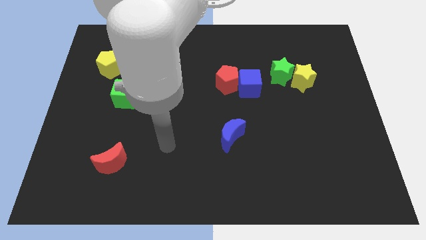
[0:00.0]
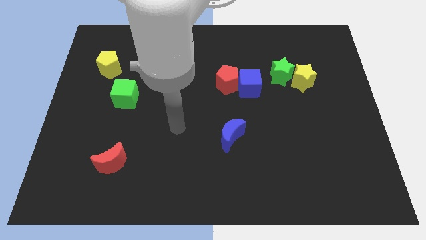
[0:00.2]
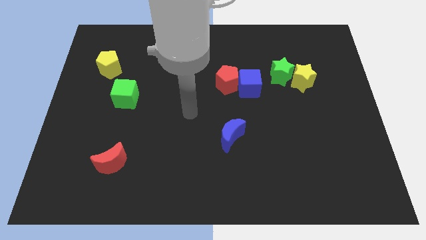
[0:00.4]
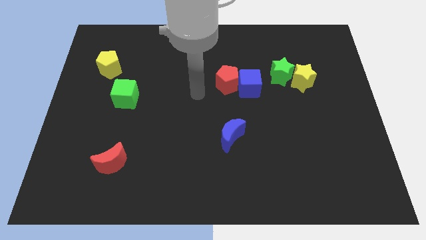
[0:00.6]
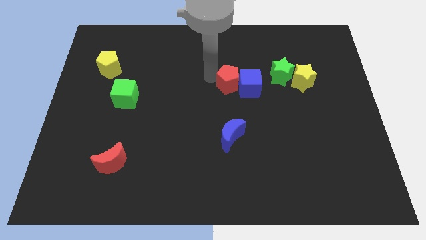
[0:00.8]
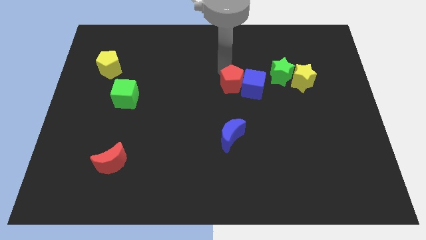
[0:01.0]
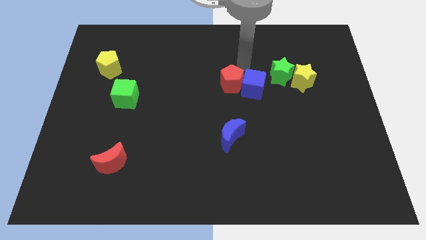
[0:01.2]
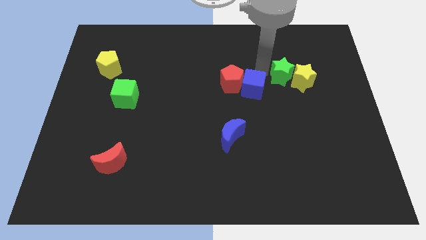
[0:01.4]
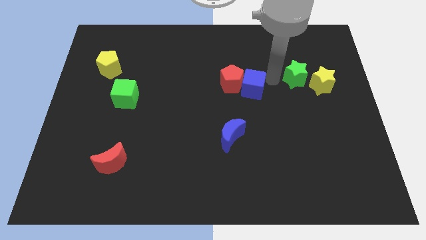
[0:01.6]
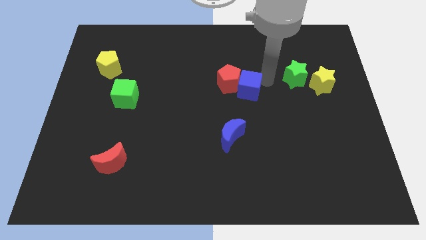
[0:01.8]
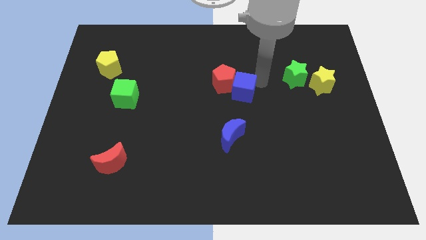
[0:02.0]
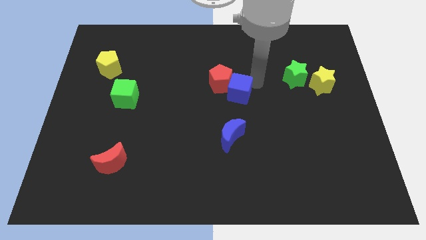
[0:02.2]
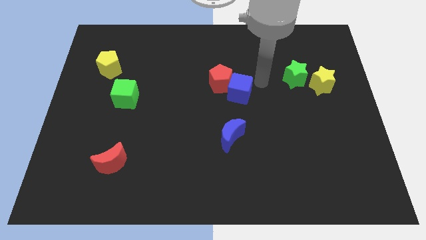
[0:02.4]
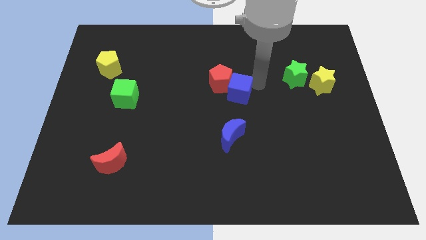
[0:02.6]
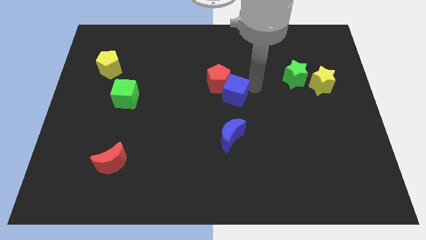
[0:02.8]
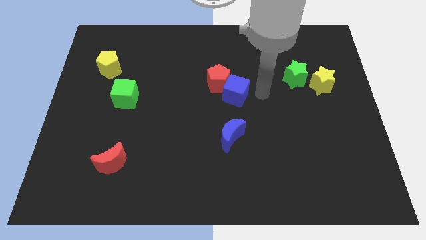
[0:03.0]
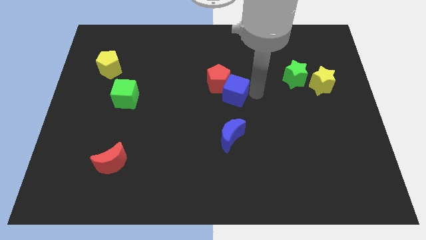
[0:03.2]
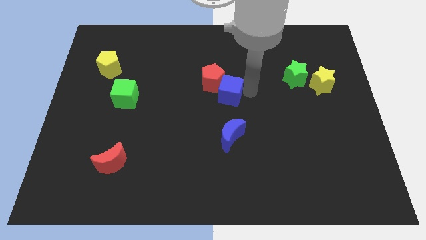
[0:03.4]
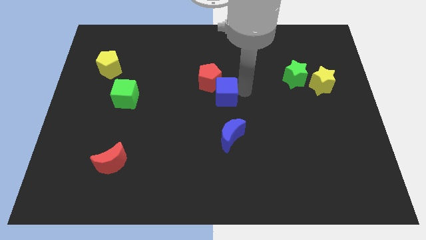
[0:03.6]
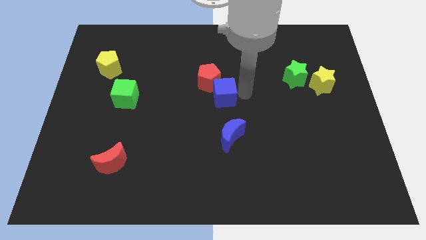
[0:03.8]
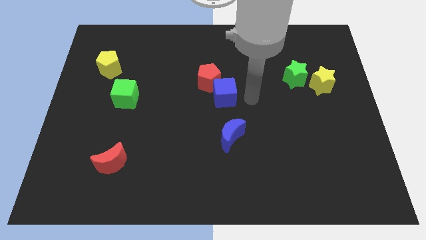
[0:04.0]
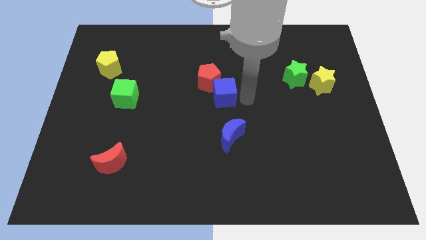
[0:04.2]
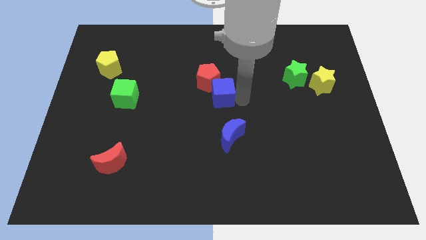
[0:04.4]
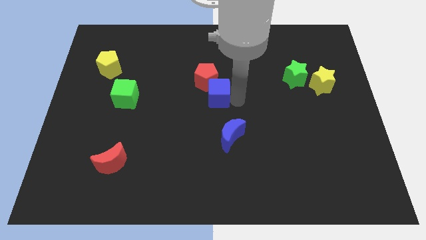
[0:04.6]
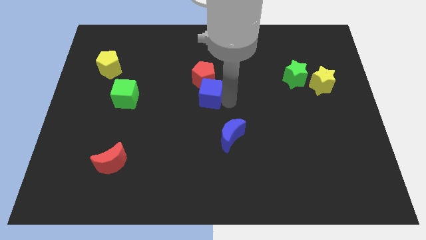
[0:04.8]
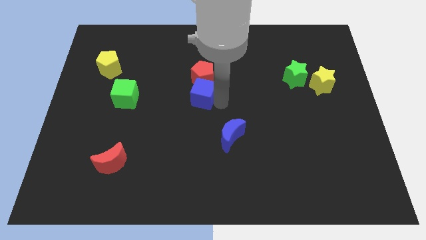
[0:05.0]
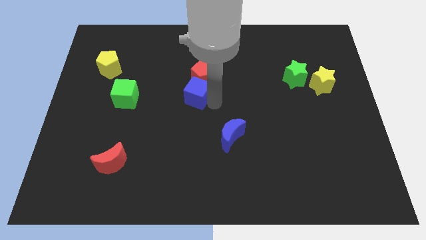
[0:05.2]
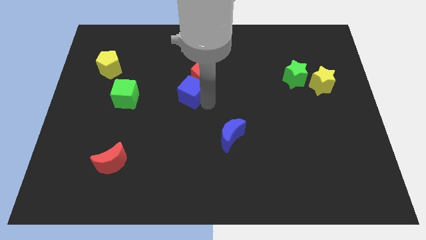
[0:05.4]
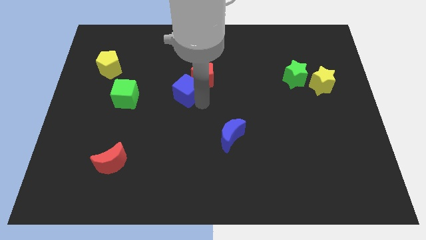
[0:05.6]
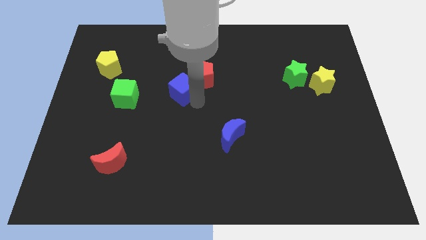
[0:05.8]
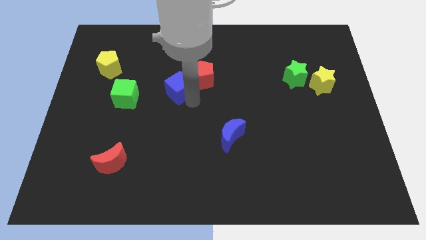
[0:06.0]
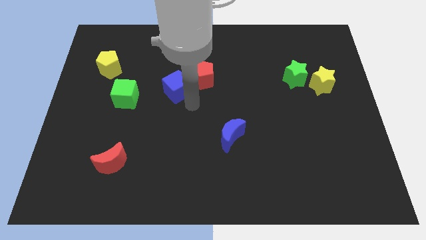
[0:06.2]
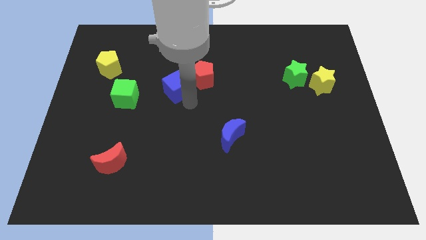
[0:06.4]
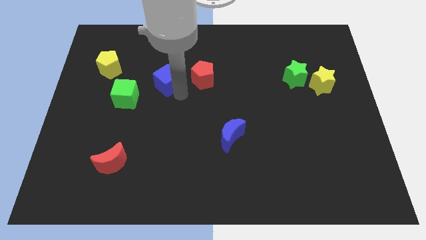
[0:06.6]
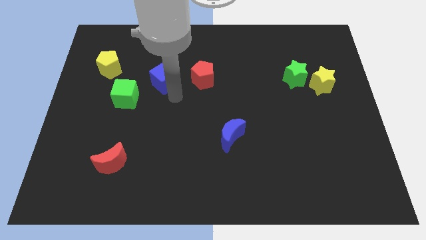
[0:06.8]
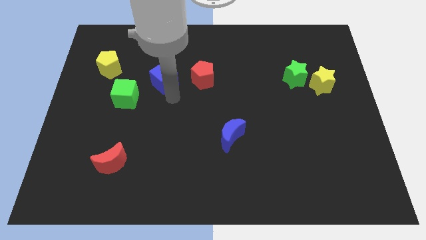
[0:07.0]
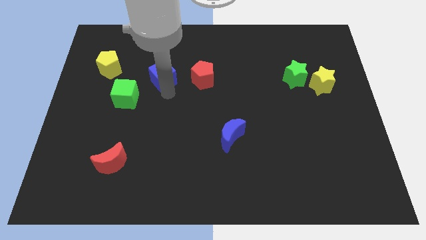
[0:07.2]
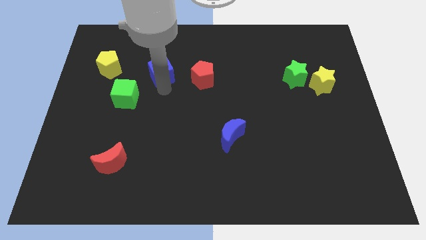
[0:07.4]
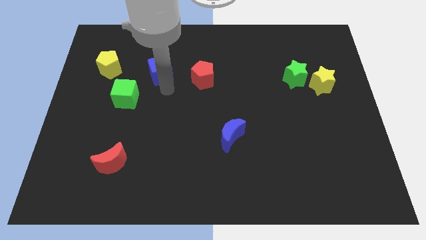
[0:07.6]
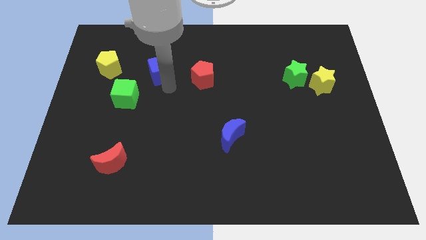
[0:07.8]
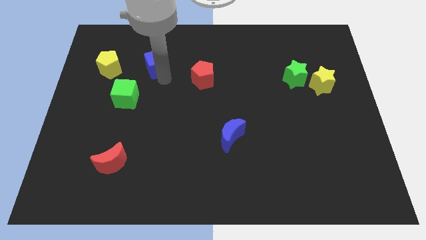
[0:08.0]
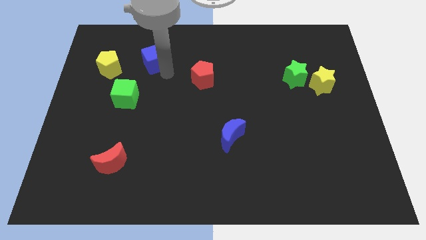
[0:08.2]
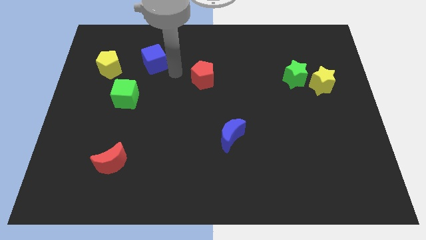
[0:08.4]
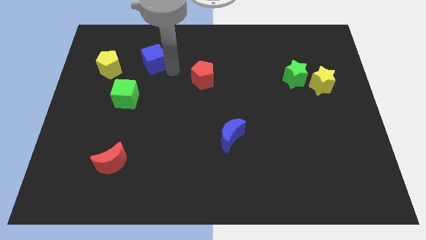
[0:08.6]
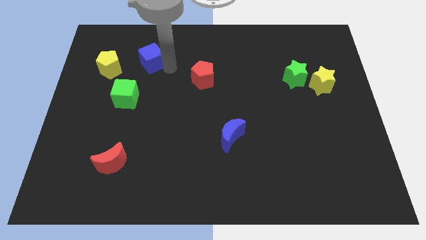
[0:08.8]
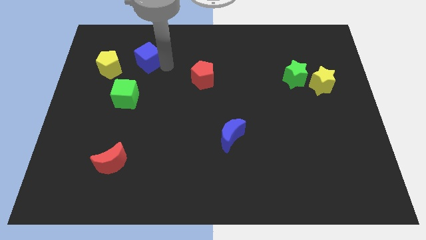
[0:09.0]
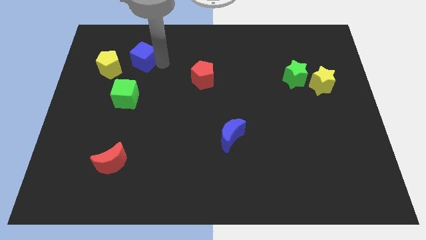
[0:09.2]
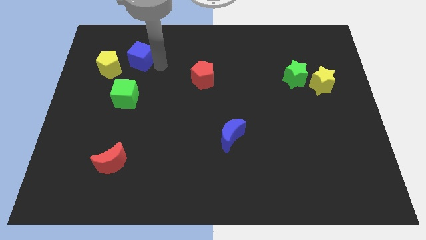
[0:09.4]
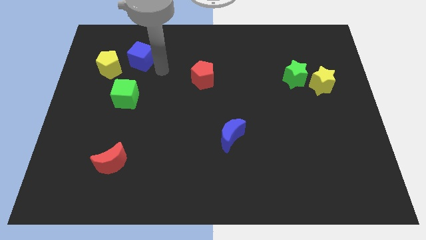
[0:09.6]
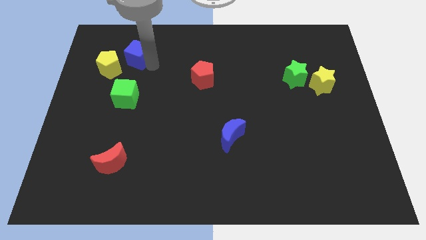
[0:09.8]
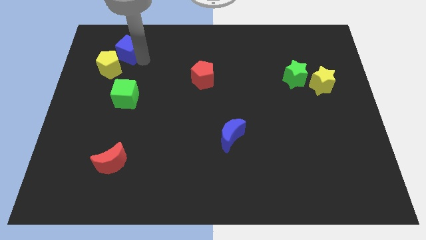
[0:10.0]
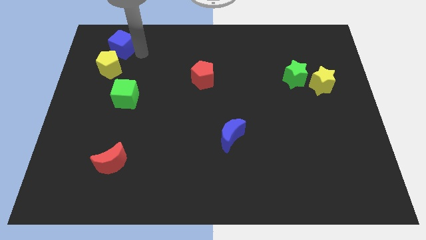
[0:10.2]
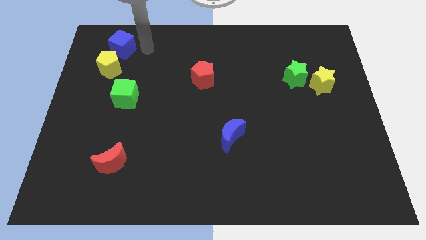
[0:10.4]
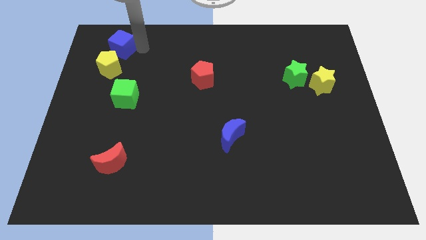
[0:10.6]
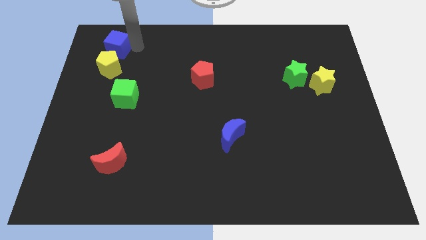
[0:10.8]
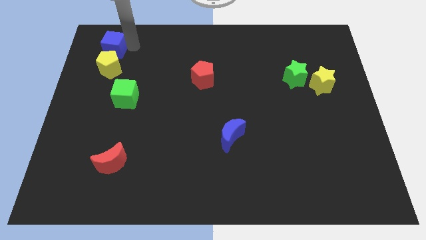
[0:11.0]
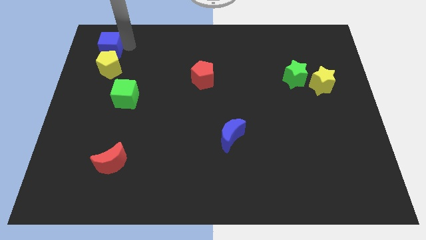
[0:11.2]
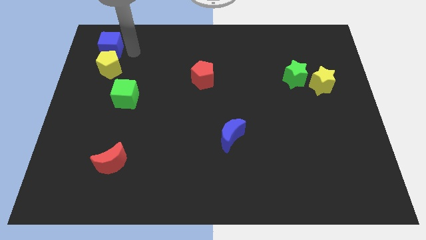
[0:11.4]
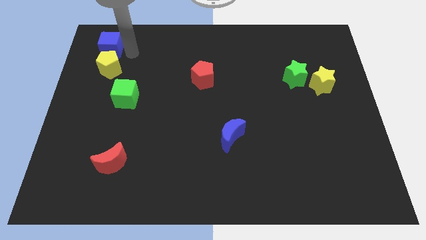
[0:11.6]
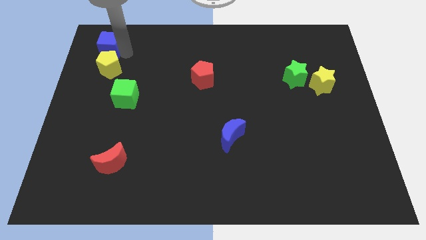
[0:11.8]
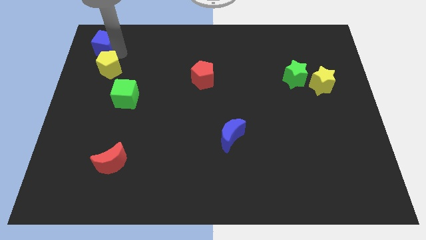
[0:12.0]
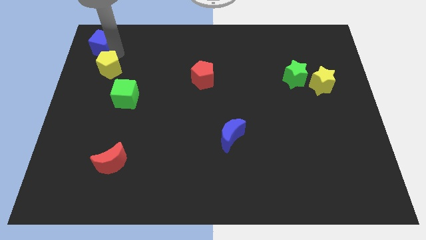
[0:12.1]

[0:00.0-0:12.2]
push the blue cube to the top left of the board

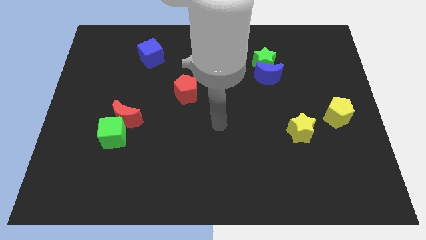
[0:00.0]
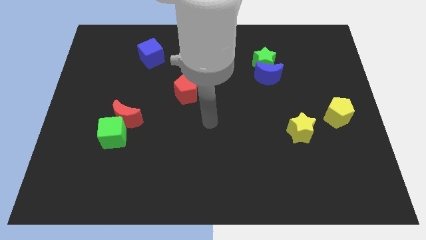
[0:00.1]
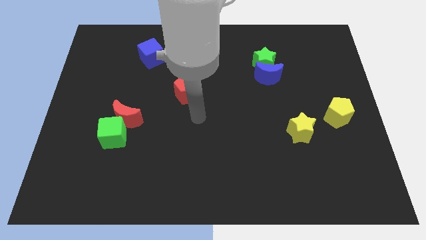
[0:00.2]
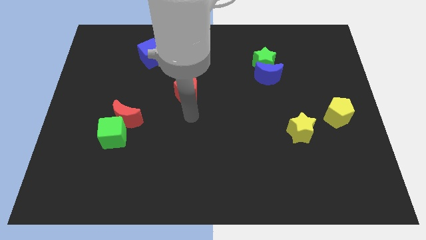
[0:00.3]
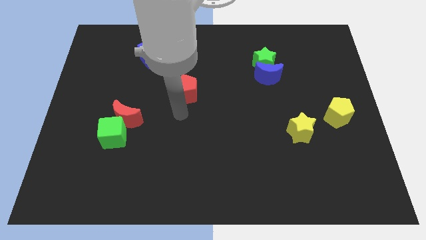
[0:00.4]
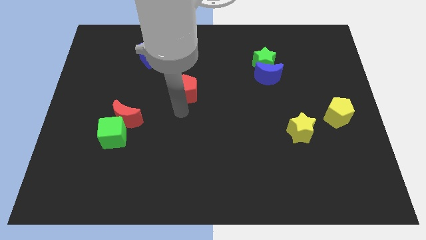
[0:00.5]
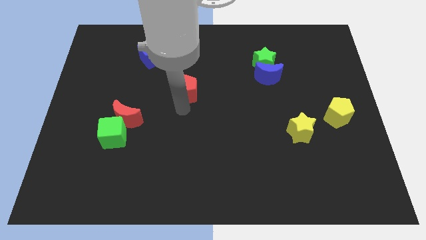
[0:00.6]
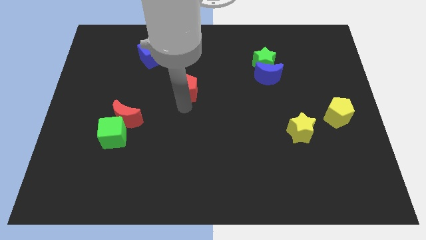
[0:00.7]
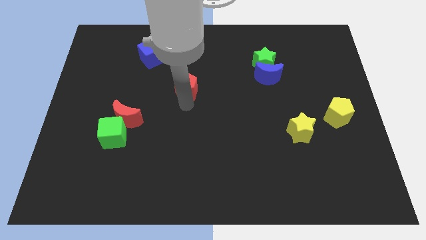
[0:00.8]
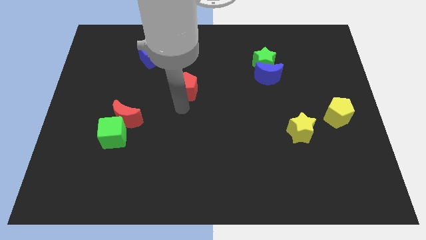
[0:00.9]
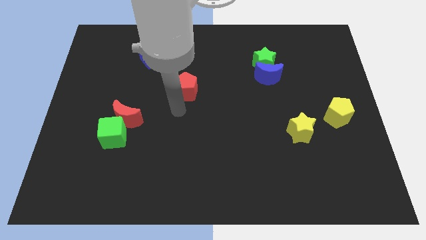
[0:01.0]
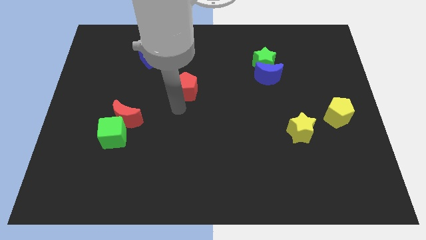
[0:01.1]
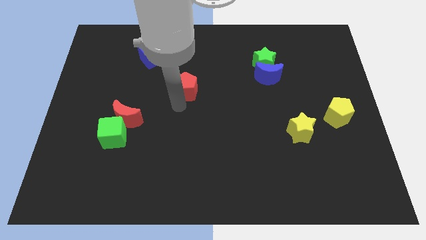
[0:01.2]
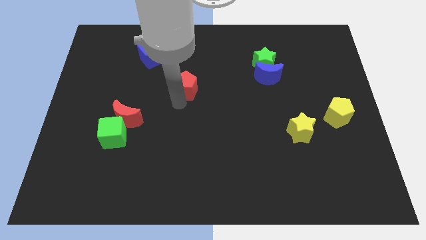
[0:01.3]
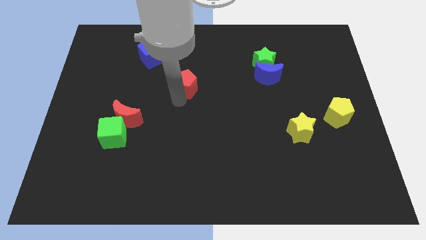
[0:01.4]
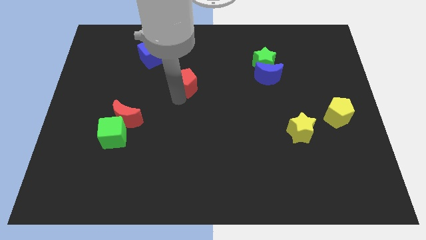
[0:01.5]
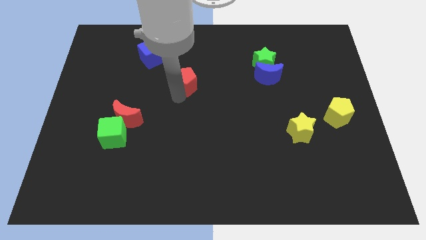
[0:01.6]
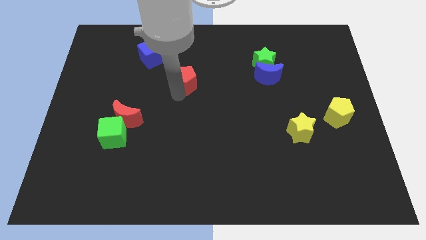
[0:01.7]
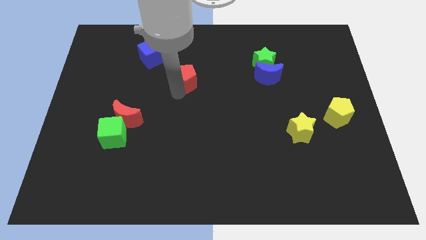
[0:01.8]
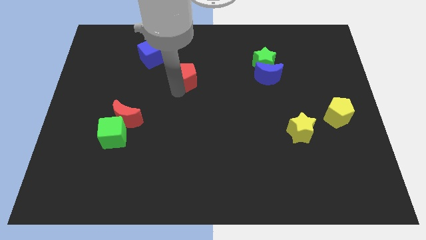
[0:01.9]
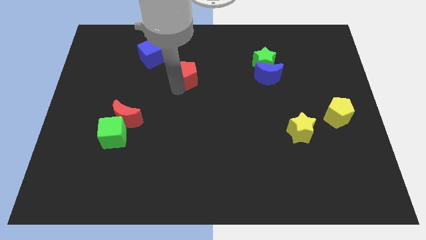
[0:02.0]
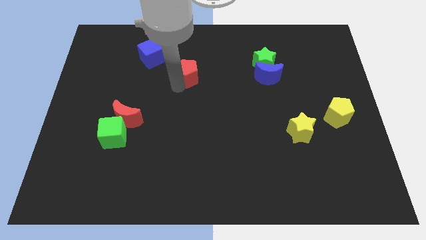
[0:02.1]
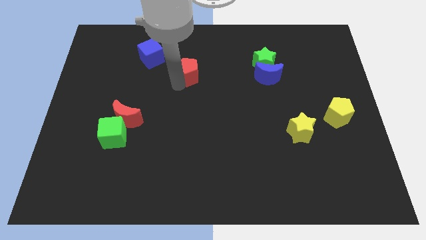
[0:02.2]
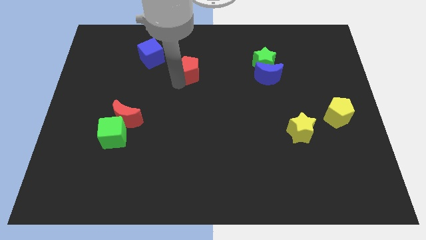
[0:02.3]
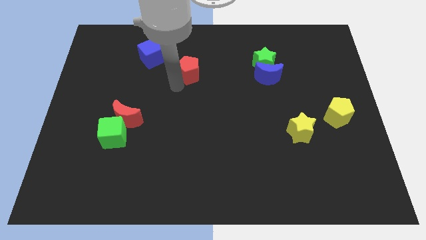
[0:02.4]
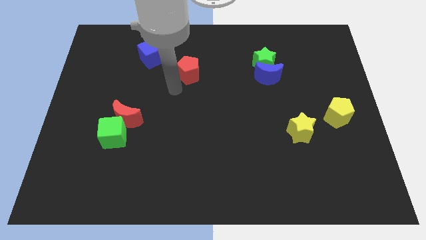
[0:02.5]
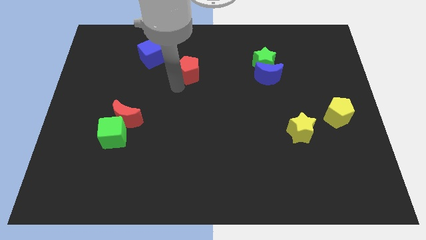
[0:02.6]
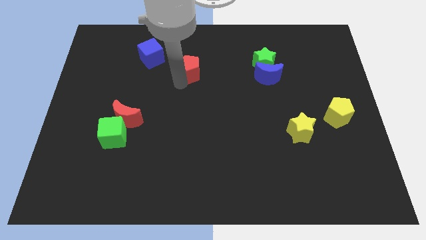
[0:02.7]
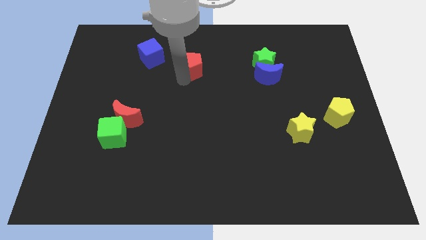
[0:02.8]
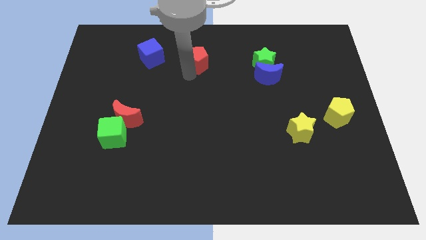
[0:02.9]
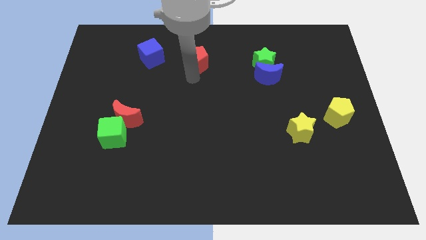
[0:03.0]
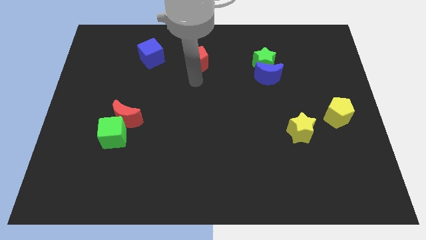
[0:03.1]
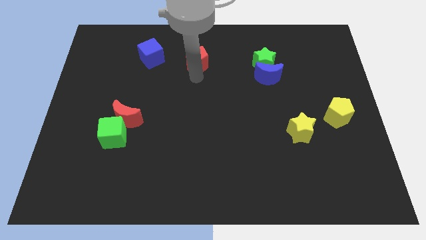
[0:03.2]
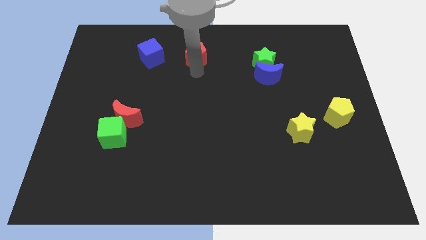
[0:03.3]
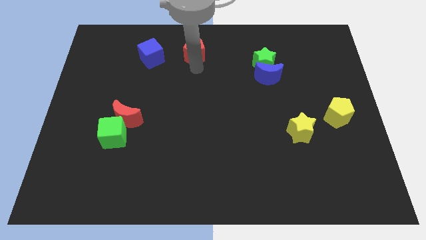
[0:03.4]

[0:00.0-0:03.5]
push the red pentagon to the top side
